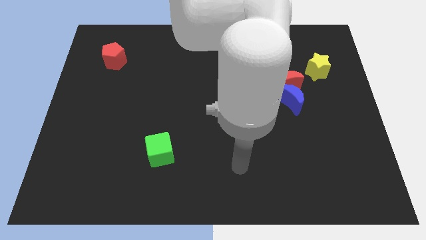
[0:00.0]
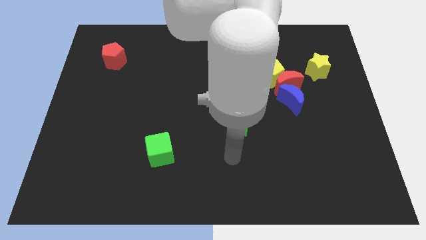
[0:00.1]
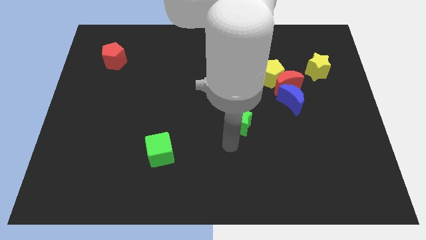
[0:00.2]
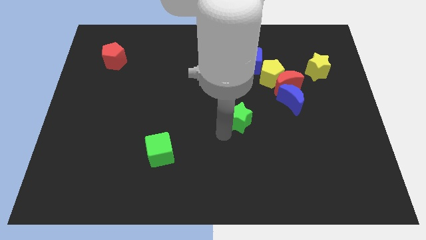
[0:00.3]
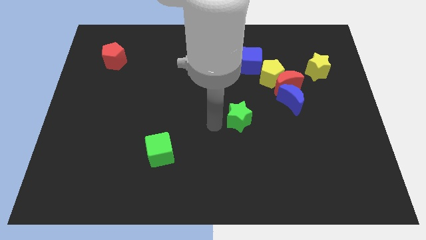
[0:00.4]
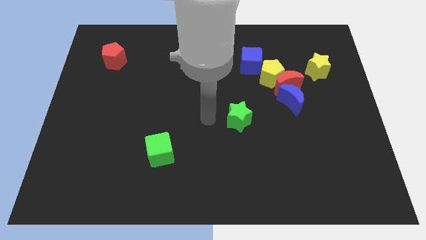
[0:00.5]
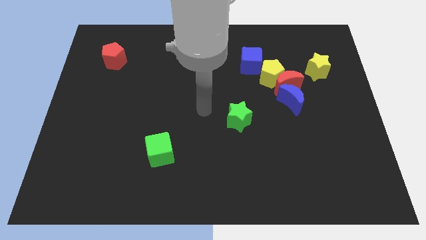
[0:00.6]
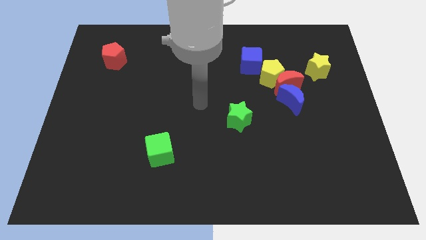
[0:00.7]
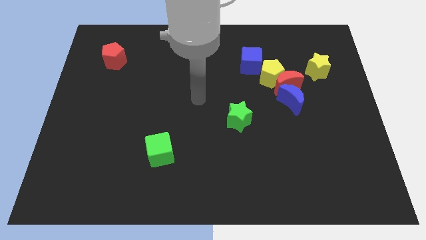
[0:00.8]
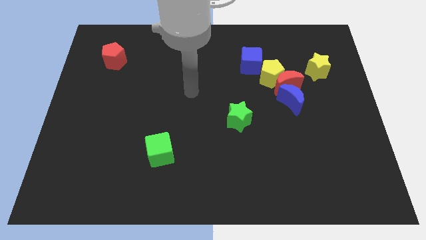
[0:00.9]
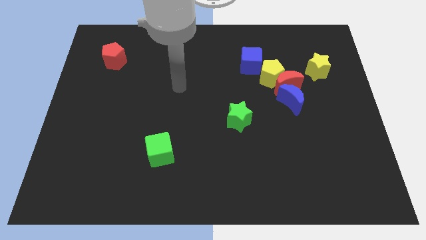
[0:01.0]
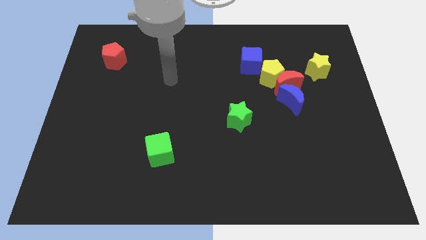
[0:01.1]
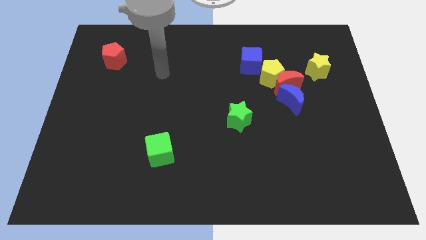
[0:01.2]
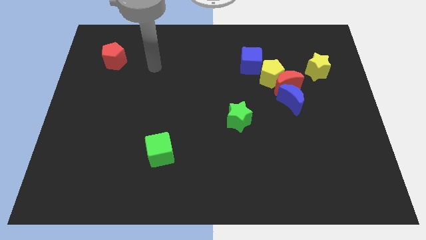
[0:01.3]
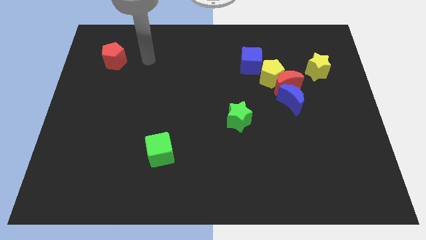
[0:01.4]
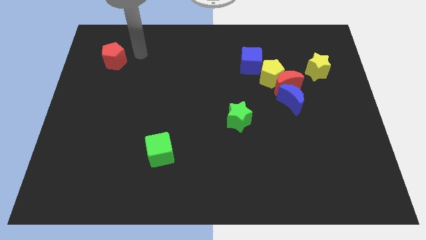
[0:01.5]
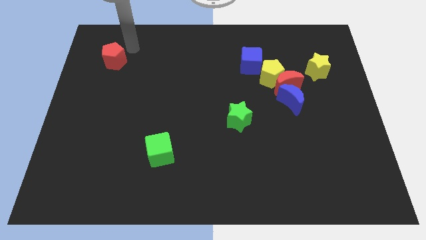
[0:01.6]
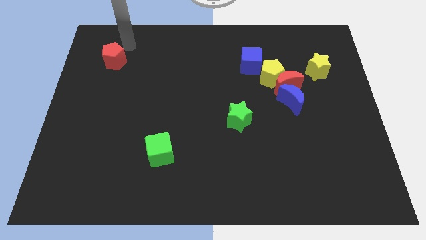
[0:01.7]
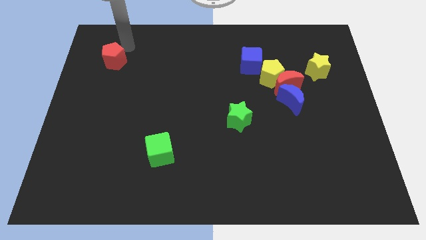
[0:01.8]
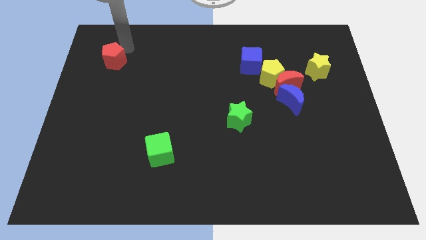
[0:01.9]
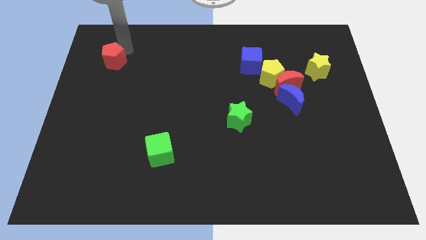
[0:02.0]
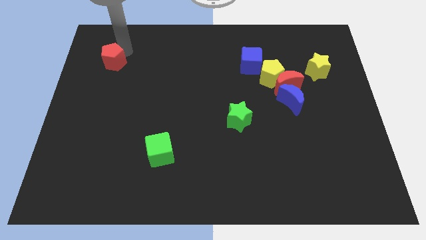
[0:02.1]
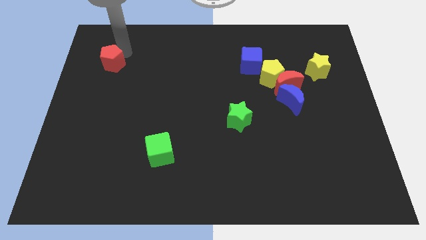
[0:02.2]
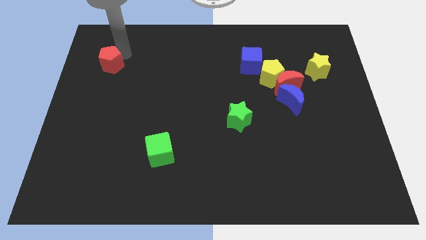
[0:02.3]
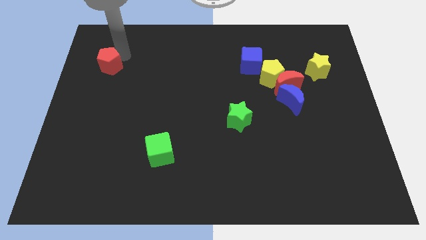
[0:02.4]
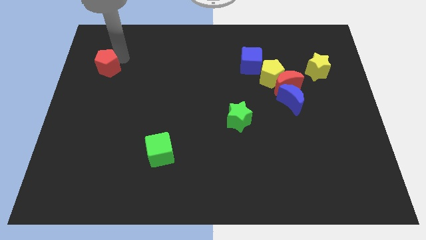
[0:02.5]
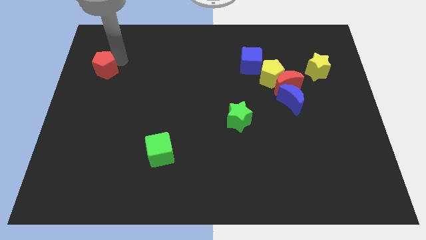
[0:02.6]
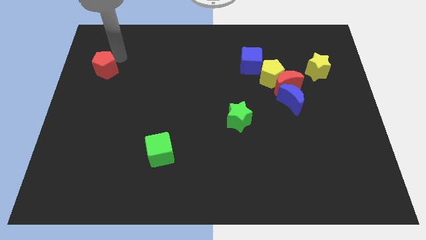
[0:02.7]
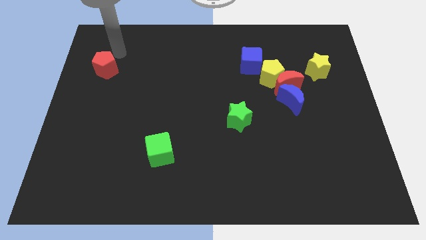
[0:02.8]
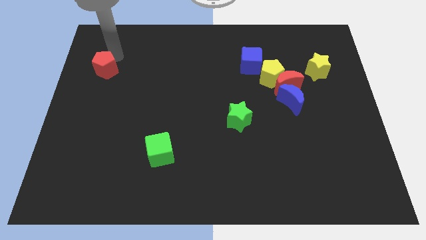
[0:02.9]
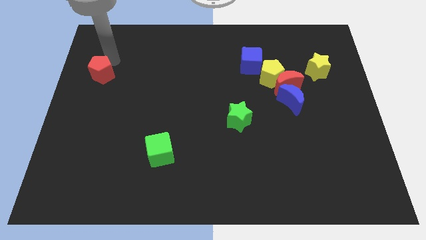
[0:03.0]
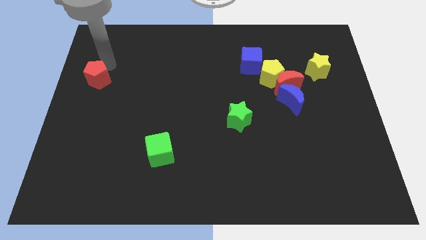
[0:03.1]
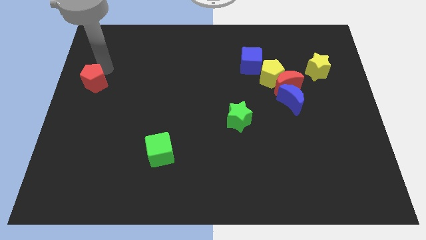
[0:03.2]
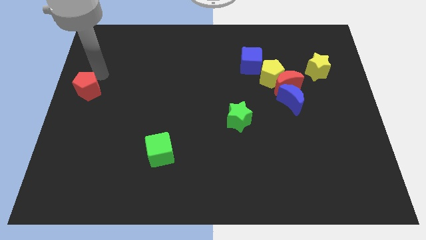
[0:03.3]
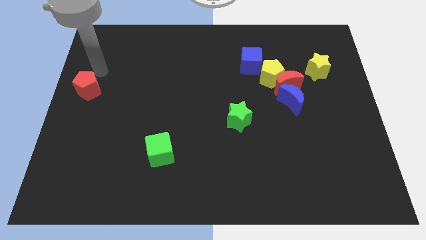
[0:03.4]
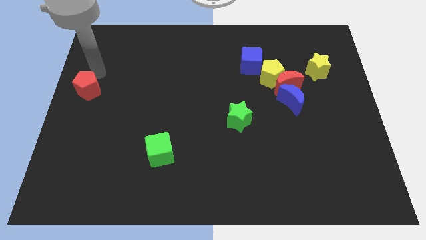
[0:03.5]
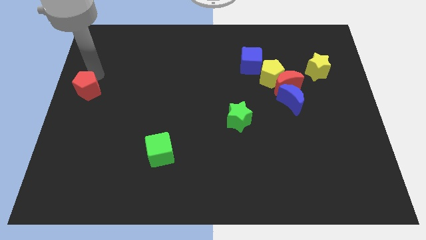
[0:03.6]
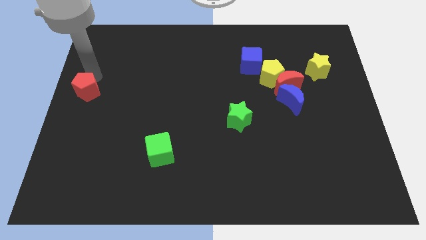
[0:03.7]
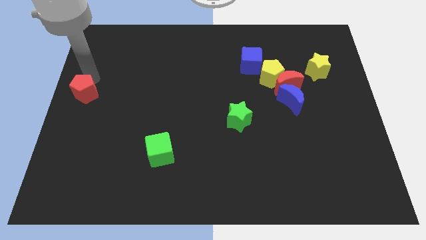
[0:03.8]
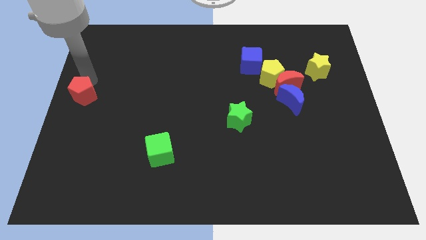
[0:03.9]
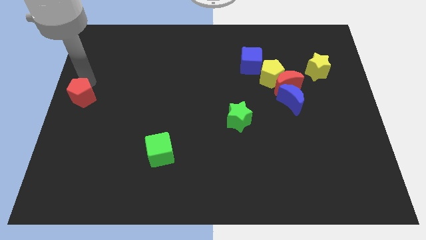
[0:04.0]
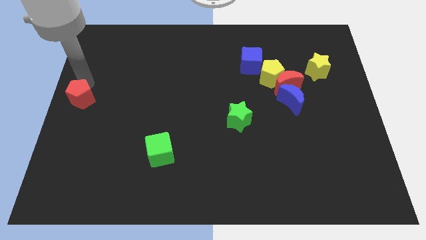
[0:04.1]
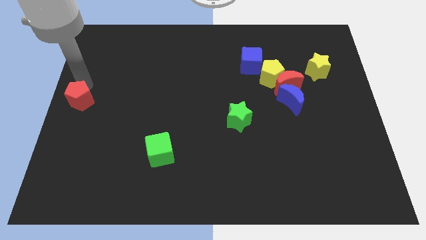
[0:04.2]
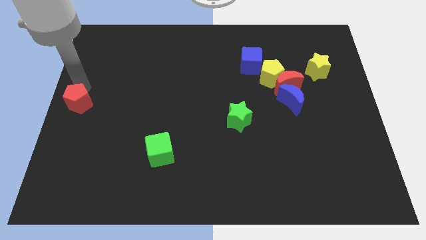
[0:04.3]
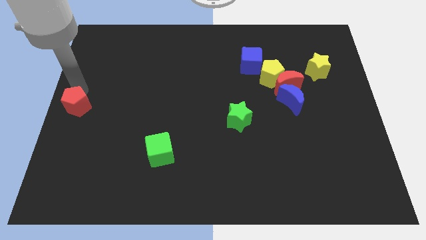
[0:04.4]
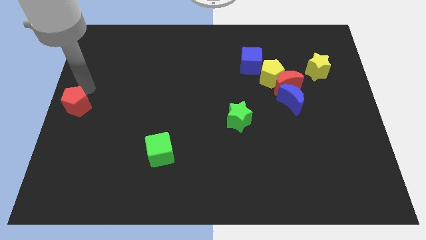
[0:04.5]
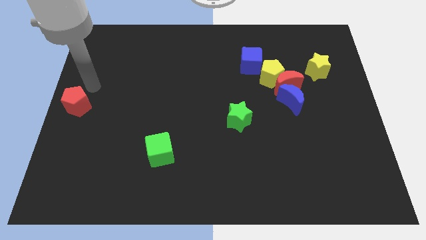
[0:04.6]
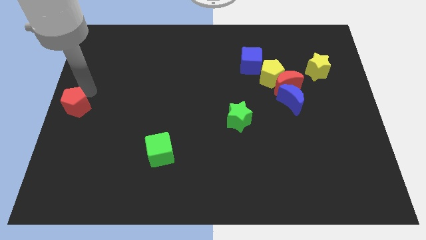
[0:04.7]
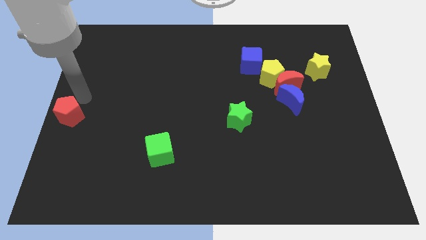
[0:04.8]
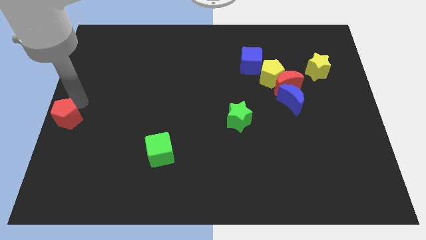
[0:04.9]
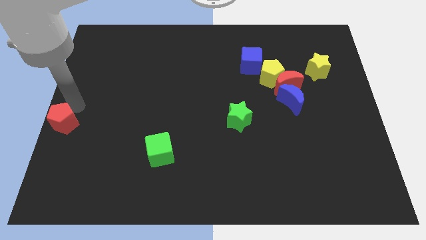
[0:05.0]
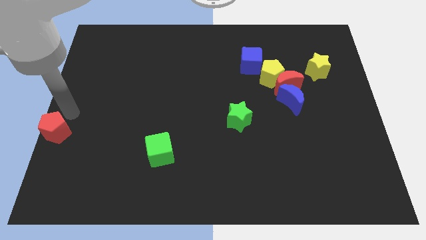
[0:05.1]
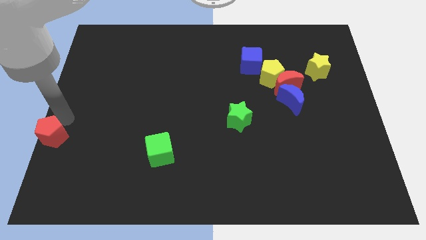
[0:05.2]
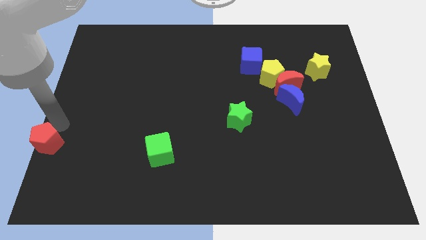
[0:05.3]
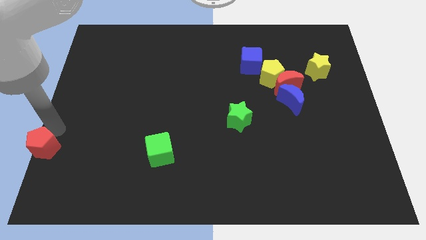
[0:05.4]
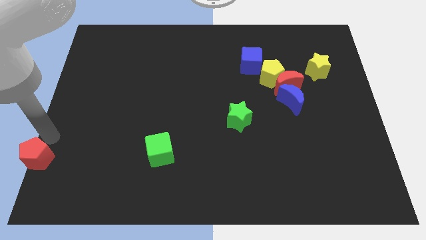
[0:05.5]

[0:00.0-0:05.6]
slide the red pentagon to the lower left corner

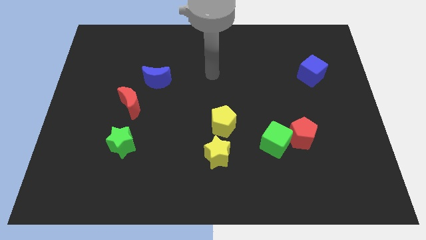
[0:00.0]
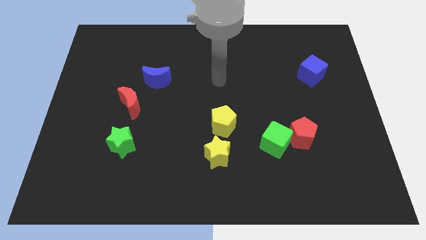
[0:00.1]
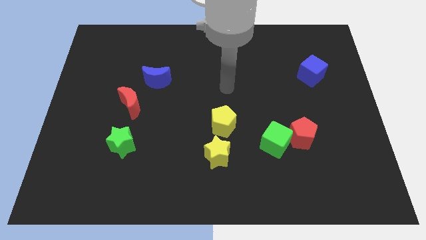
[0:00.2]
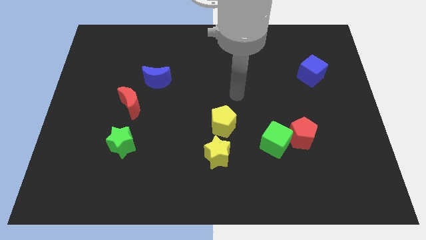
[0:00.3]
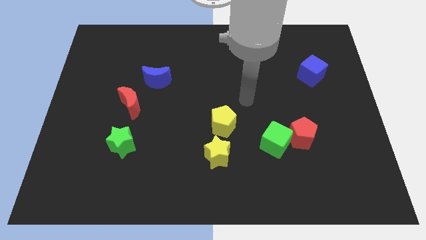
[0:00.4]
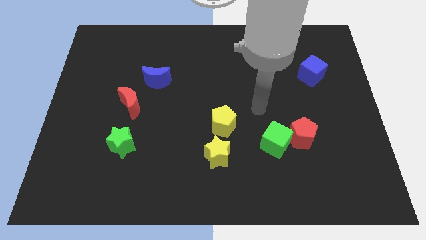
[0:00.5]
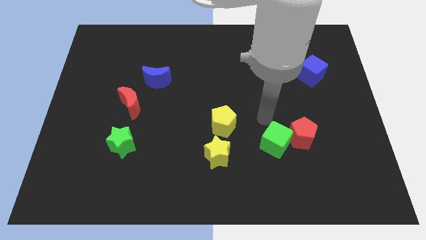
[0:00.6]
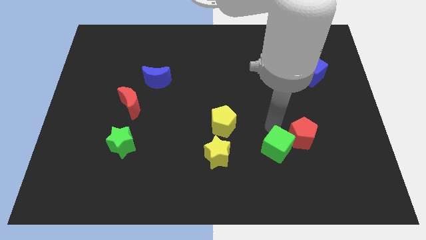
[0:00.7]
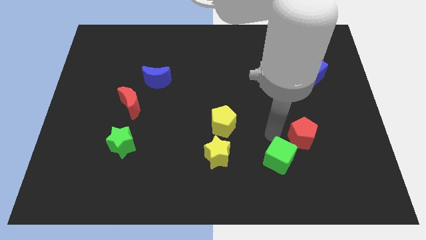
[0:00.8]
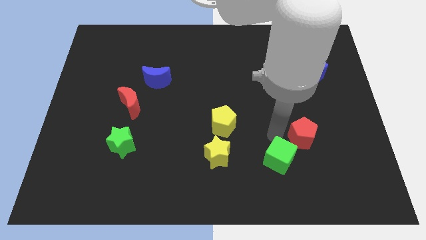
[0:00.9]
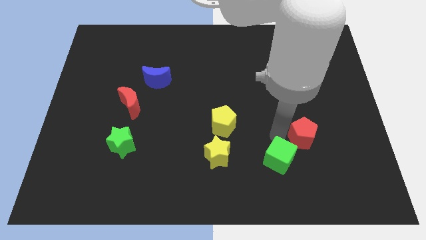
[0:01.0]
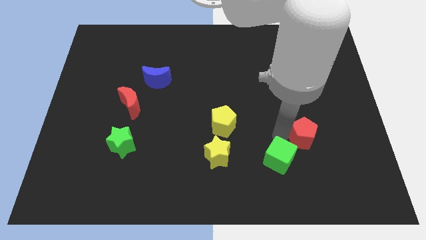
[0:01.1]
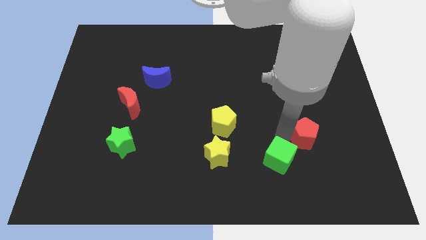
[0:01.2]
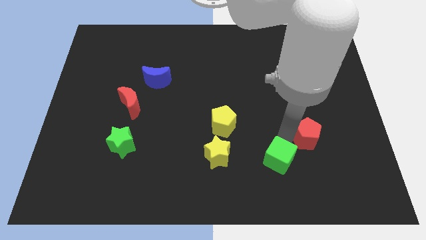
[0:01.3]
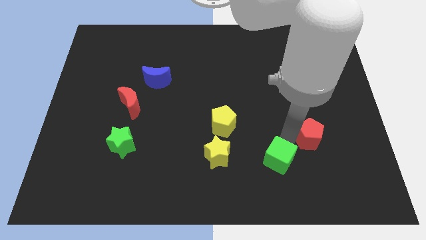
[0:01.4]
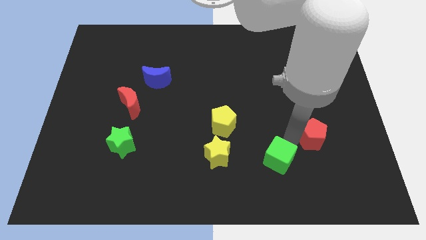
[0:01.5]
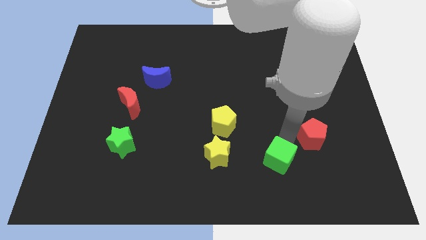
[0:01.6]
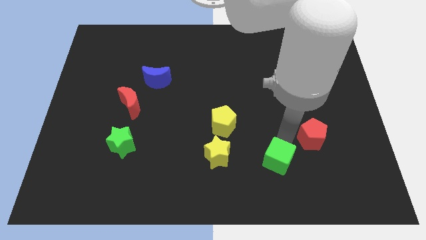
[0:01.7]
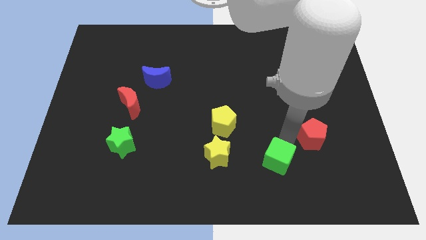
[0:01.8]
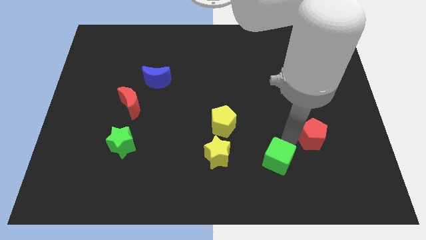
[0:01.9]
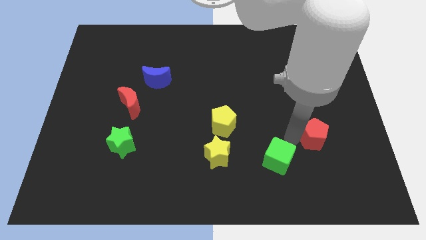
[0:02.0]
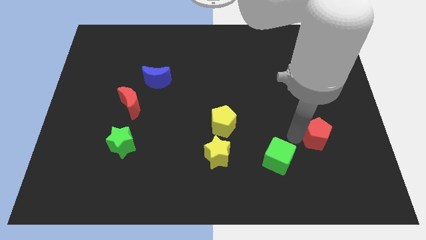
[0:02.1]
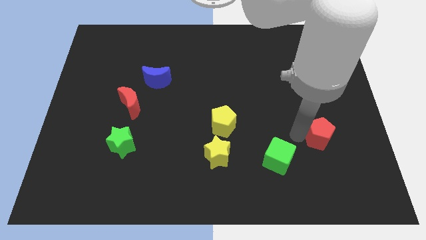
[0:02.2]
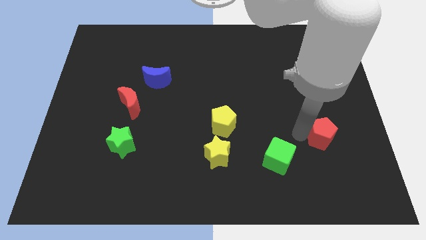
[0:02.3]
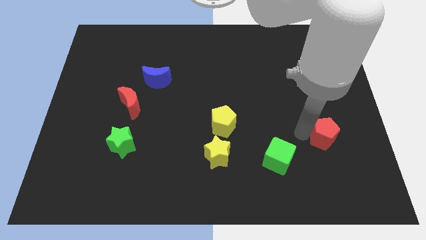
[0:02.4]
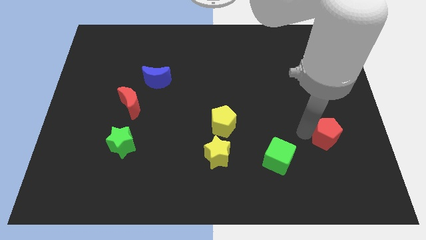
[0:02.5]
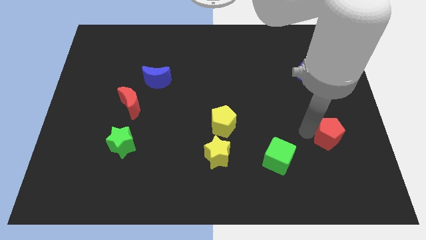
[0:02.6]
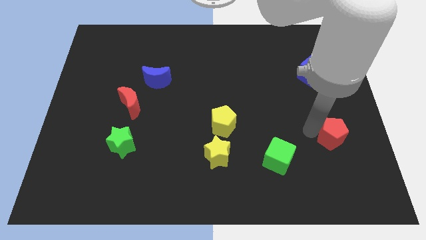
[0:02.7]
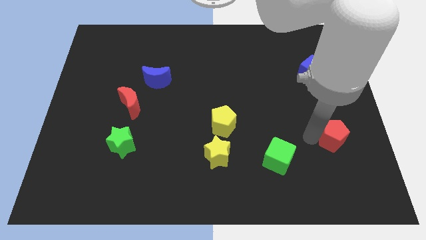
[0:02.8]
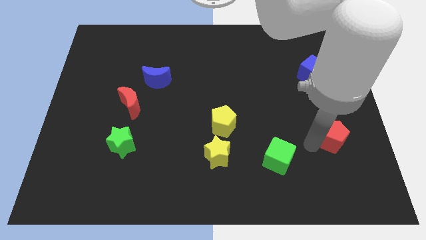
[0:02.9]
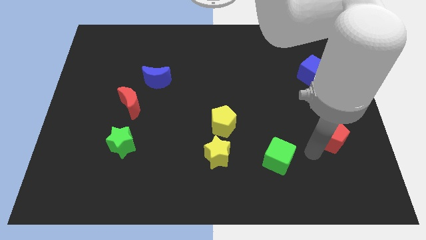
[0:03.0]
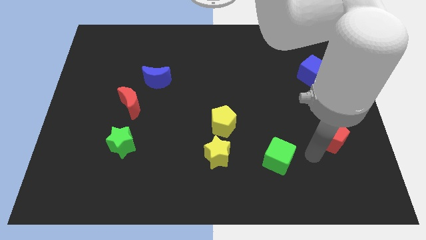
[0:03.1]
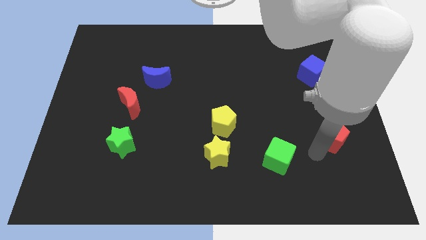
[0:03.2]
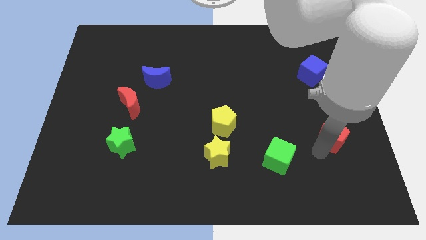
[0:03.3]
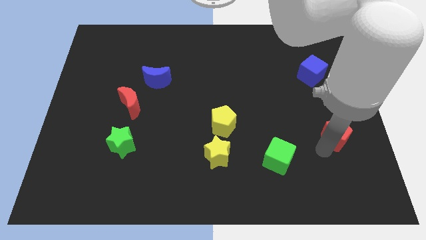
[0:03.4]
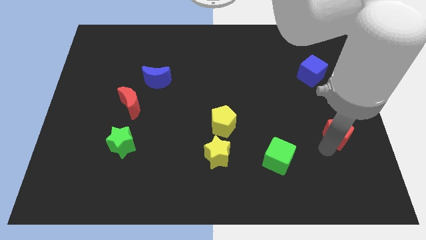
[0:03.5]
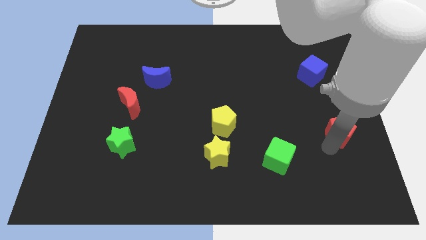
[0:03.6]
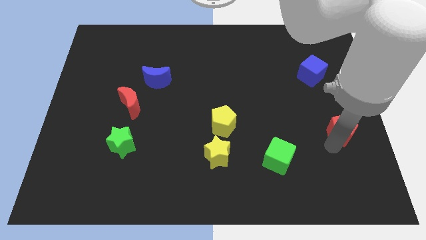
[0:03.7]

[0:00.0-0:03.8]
push the red pentagon to the right side
